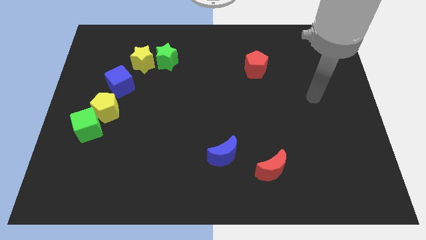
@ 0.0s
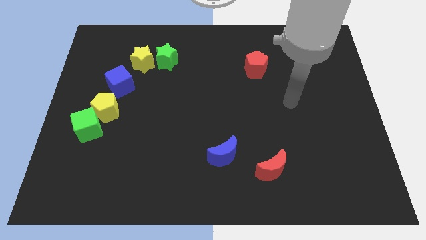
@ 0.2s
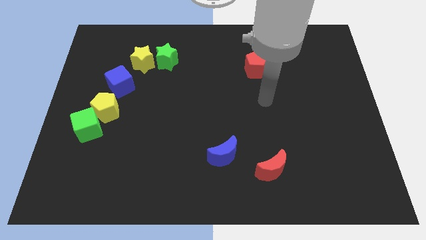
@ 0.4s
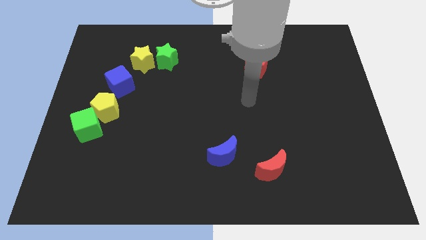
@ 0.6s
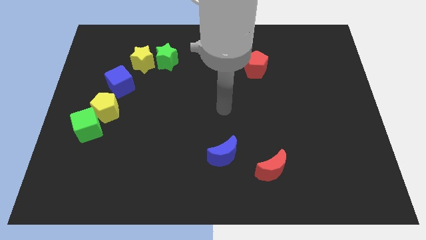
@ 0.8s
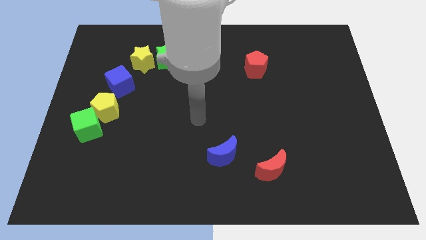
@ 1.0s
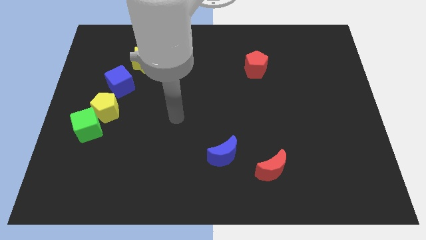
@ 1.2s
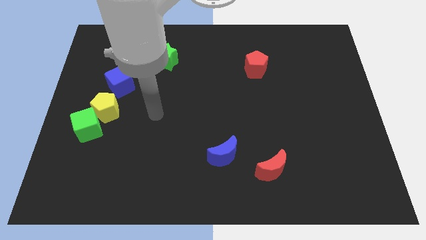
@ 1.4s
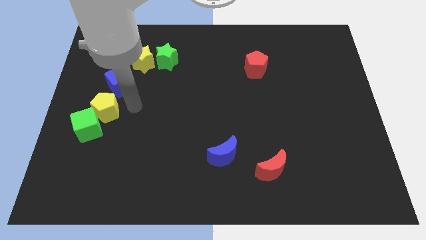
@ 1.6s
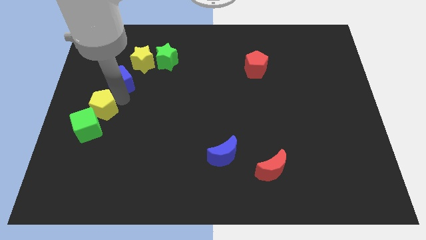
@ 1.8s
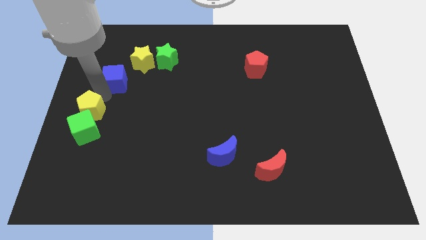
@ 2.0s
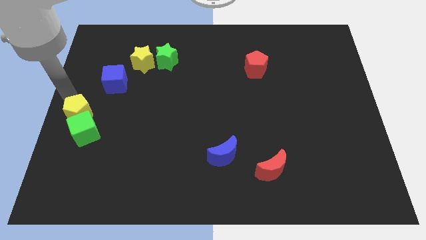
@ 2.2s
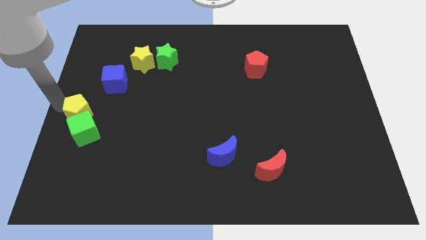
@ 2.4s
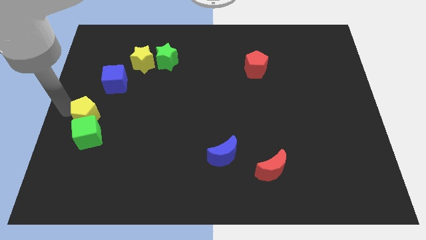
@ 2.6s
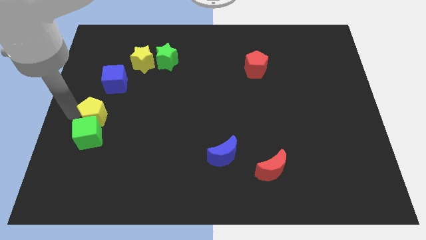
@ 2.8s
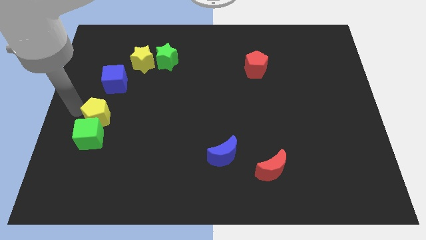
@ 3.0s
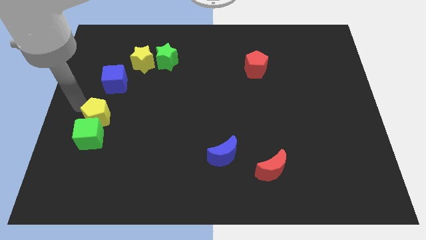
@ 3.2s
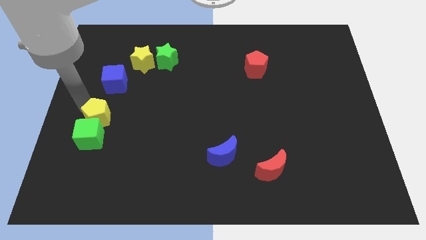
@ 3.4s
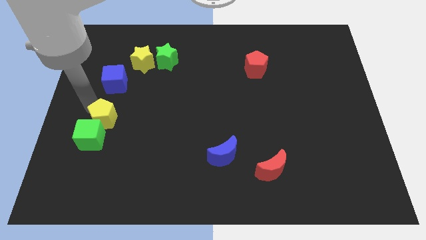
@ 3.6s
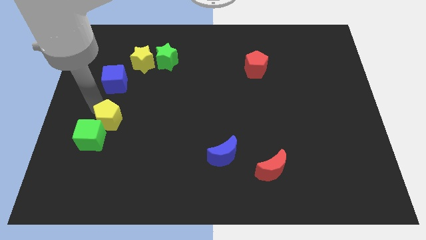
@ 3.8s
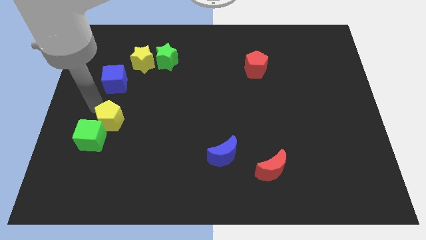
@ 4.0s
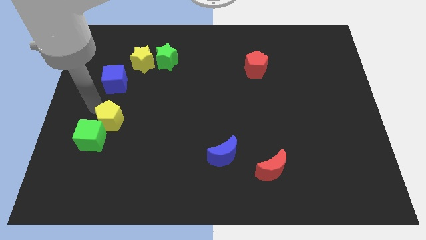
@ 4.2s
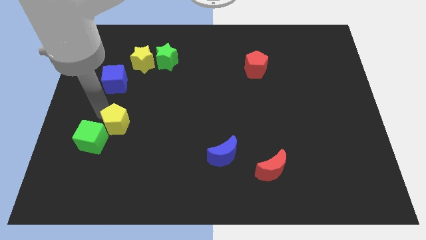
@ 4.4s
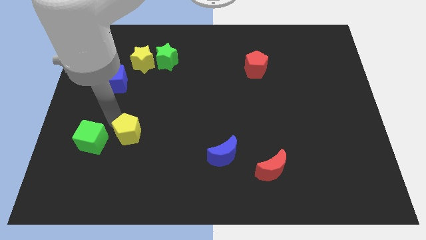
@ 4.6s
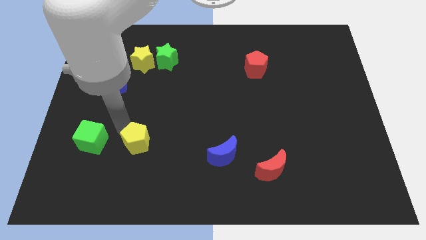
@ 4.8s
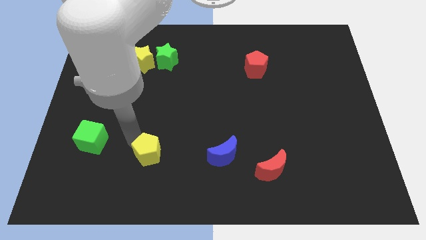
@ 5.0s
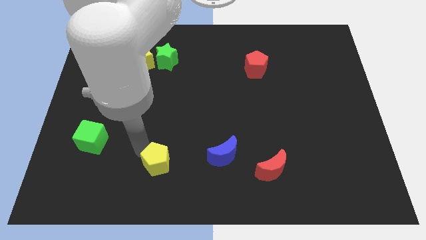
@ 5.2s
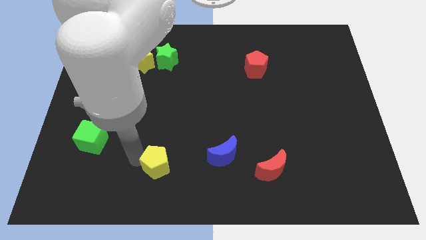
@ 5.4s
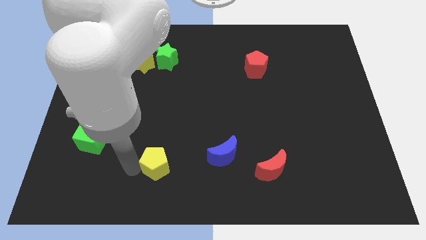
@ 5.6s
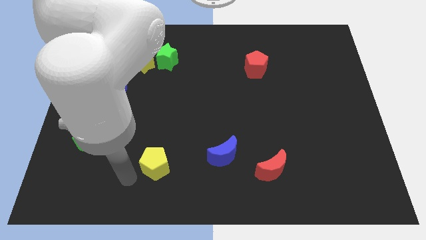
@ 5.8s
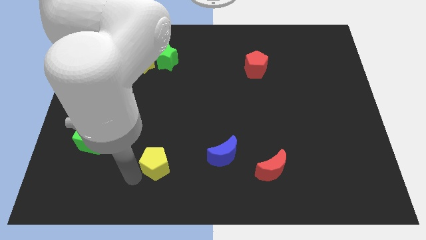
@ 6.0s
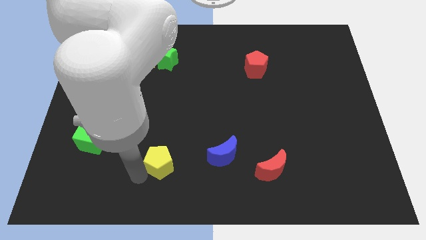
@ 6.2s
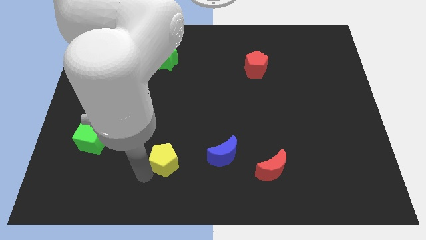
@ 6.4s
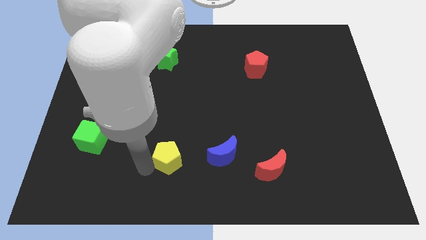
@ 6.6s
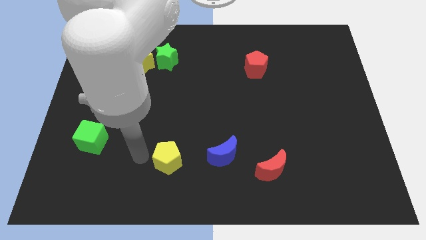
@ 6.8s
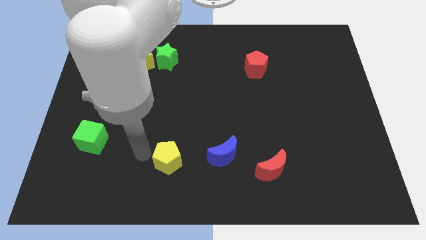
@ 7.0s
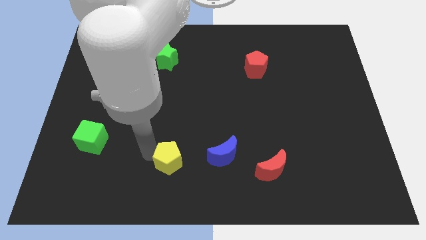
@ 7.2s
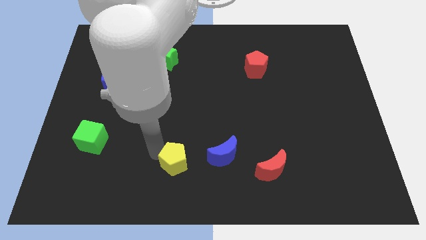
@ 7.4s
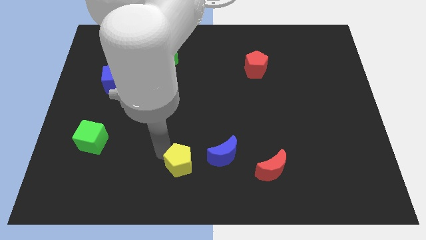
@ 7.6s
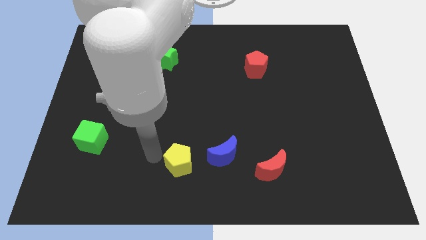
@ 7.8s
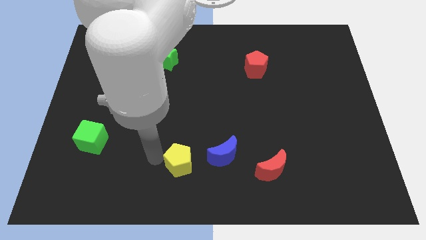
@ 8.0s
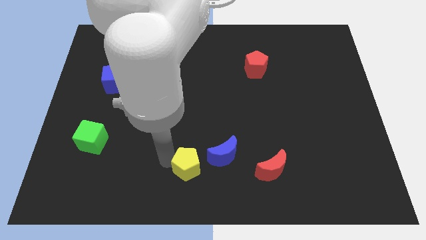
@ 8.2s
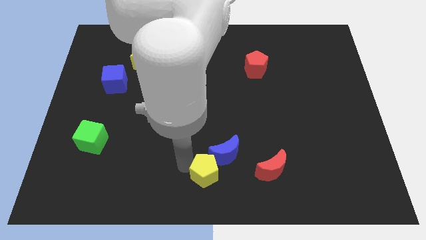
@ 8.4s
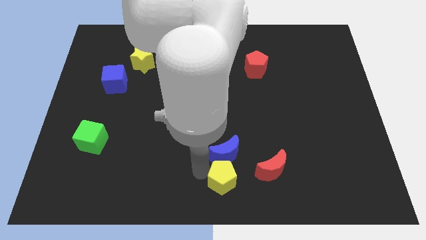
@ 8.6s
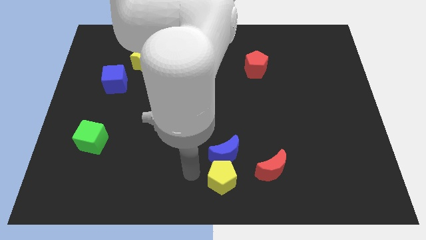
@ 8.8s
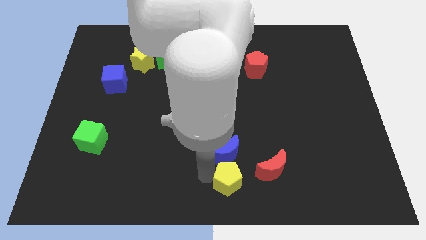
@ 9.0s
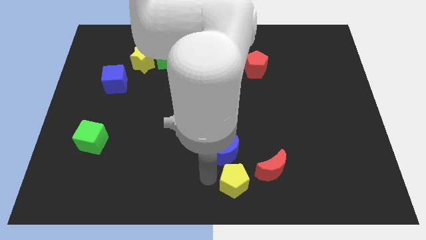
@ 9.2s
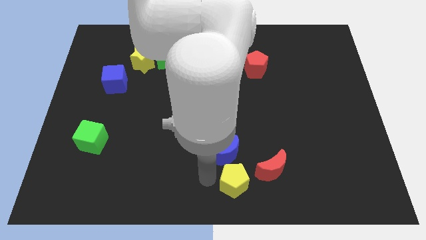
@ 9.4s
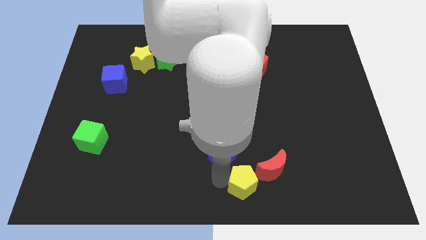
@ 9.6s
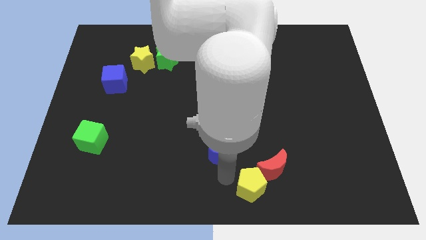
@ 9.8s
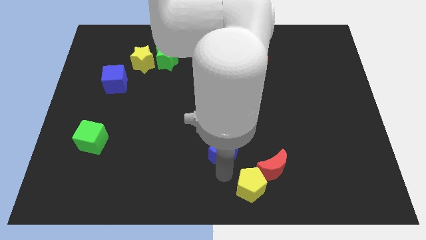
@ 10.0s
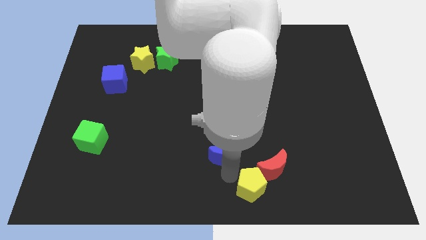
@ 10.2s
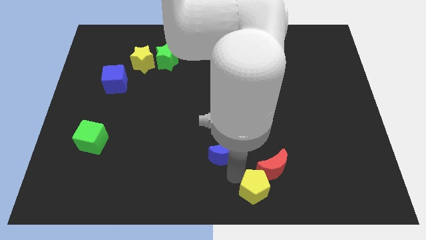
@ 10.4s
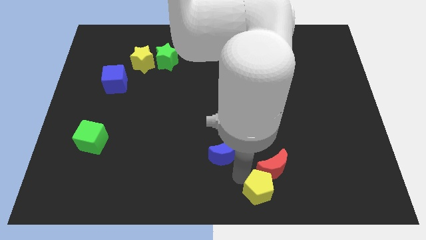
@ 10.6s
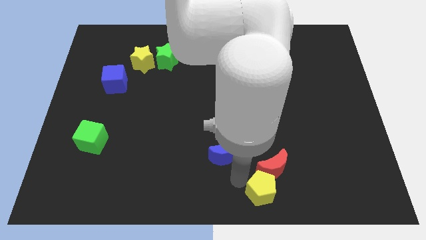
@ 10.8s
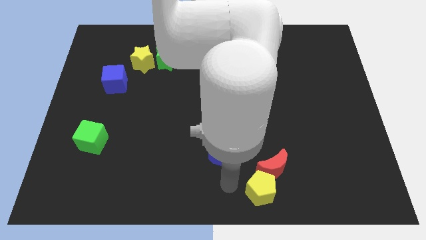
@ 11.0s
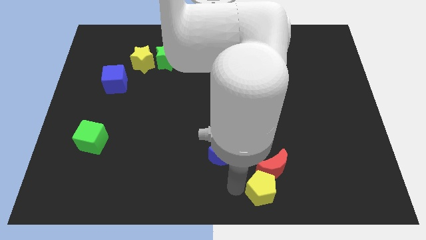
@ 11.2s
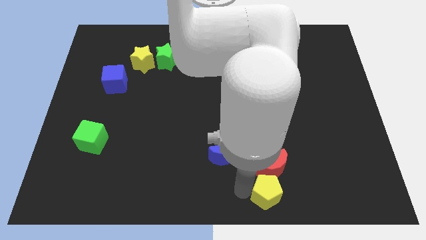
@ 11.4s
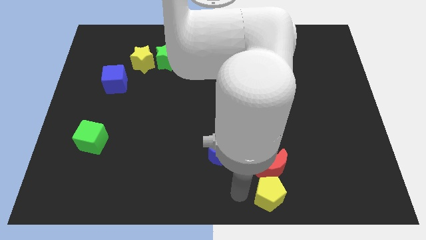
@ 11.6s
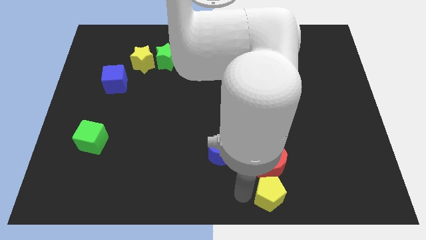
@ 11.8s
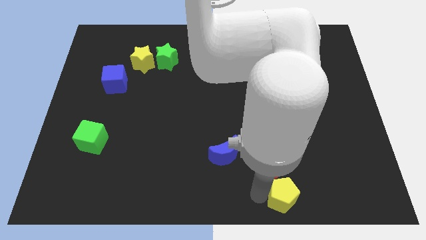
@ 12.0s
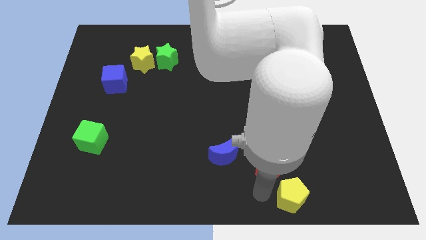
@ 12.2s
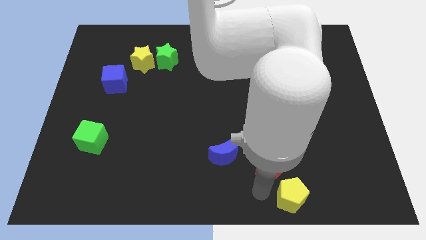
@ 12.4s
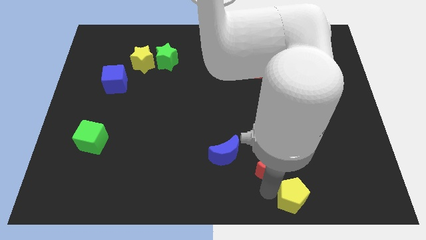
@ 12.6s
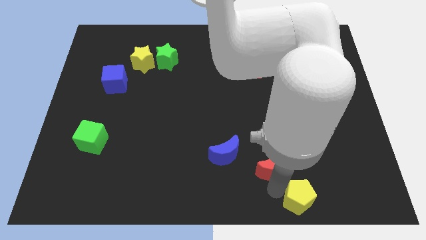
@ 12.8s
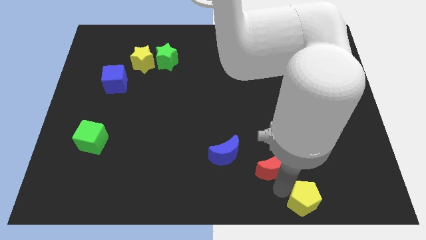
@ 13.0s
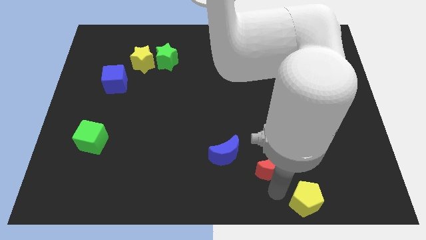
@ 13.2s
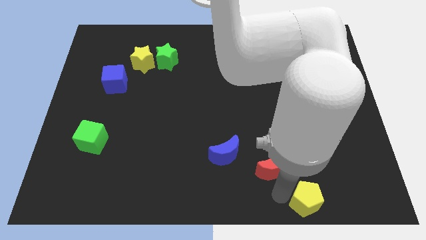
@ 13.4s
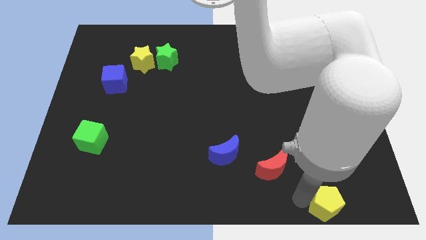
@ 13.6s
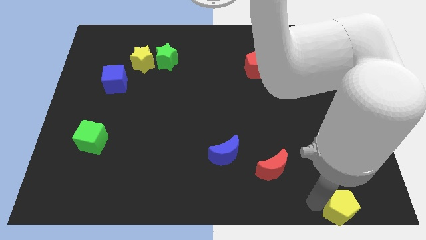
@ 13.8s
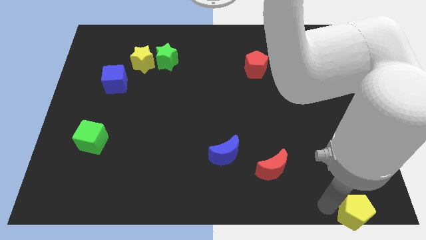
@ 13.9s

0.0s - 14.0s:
slide the yellow pentagon to the bottom right of the board
